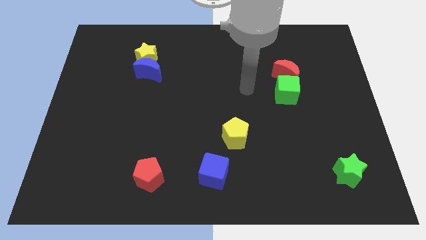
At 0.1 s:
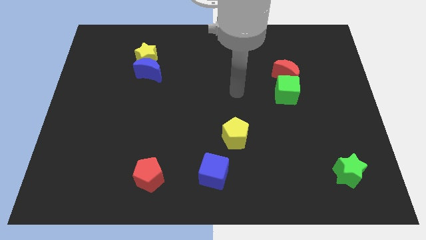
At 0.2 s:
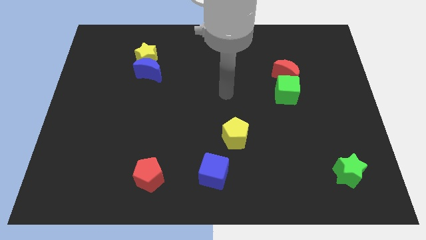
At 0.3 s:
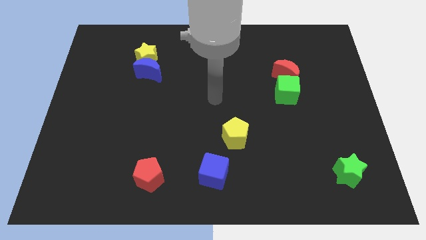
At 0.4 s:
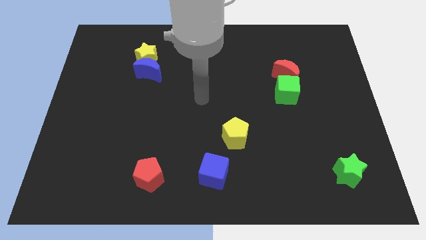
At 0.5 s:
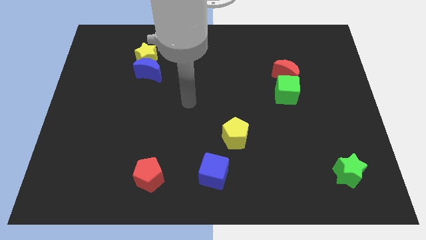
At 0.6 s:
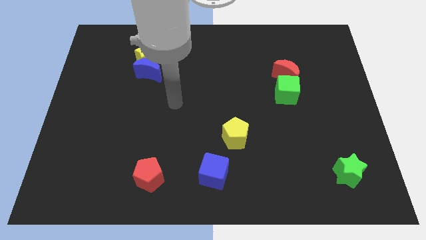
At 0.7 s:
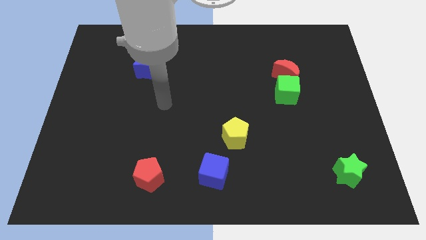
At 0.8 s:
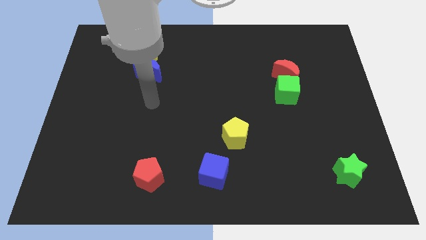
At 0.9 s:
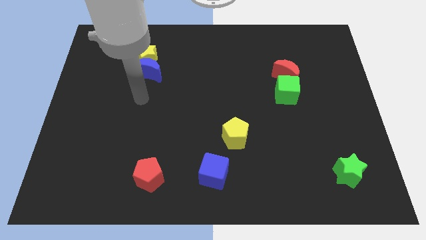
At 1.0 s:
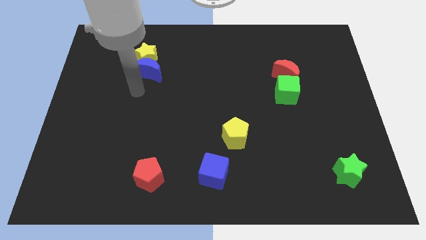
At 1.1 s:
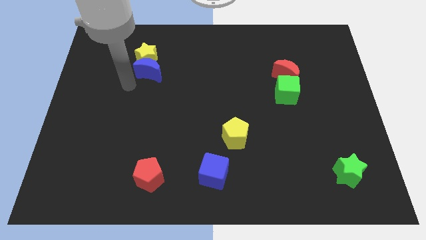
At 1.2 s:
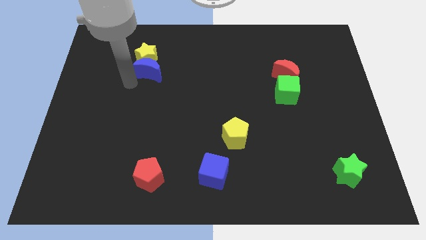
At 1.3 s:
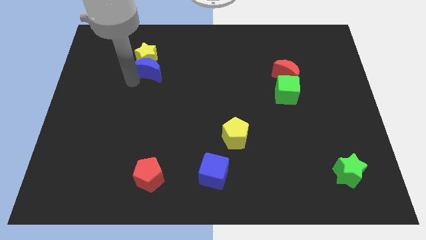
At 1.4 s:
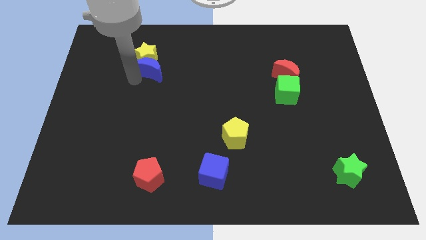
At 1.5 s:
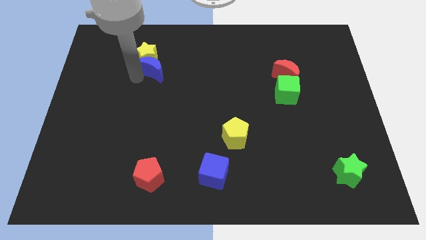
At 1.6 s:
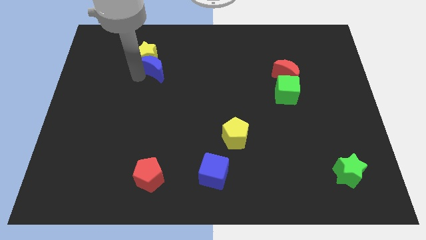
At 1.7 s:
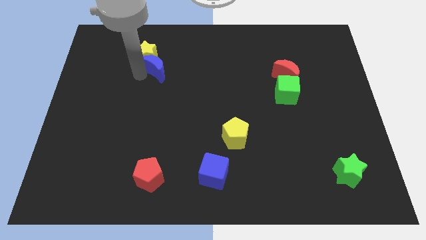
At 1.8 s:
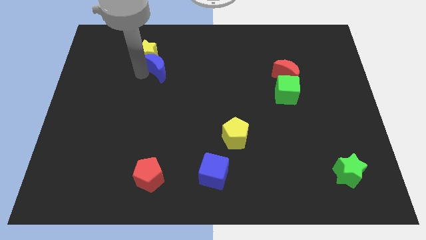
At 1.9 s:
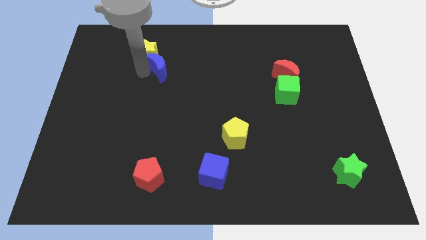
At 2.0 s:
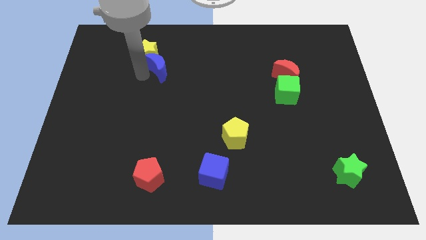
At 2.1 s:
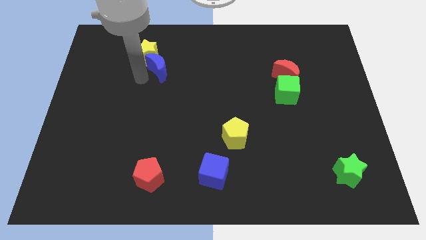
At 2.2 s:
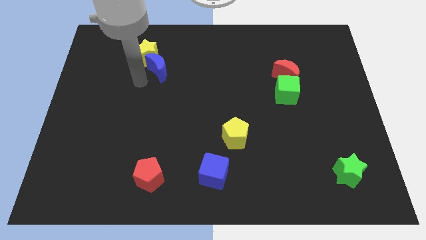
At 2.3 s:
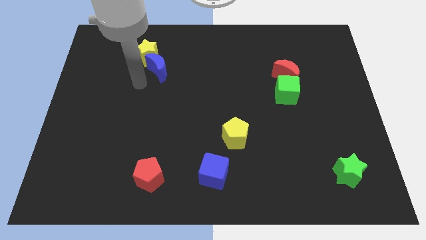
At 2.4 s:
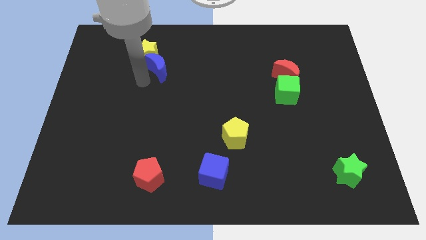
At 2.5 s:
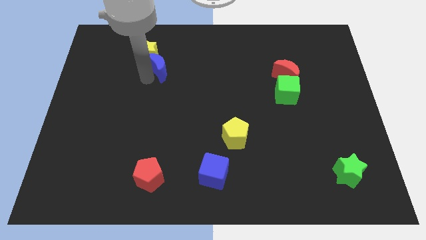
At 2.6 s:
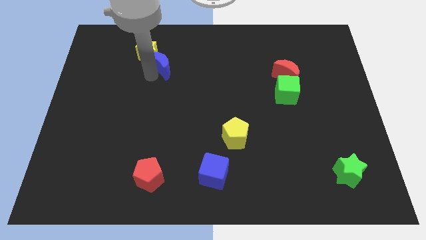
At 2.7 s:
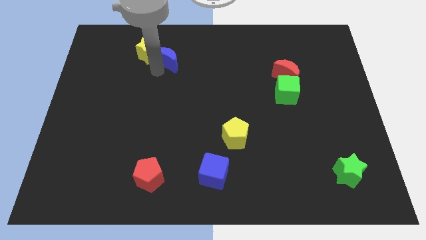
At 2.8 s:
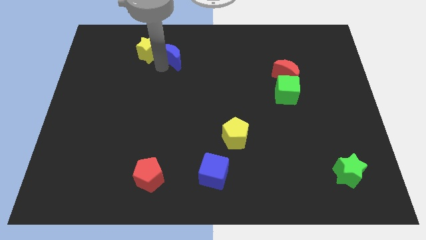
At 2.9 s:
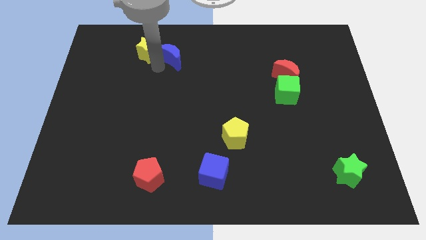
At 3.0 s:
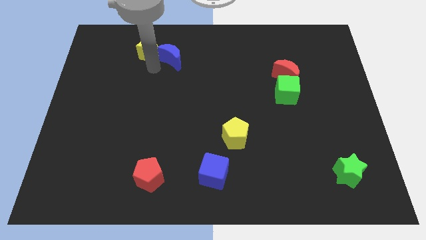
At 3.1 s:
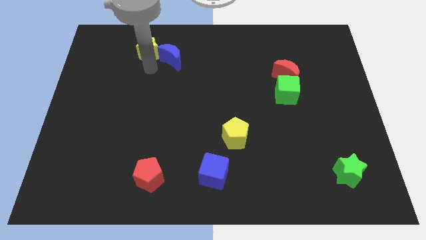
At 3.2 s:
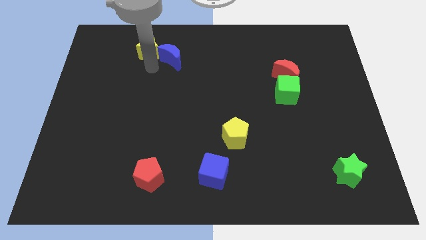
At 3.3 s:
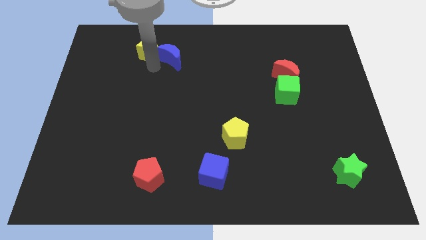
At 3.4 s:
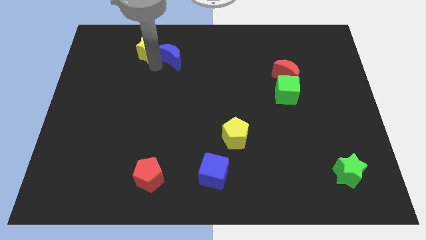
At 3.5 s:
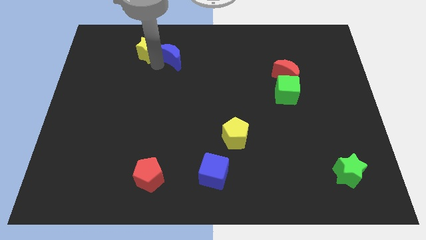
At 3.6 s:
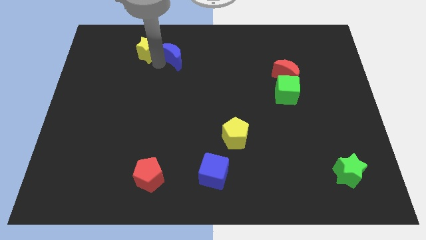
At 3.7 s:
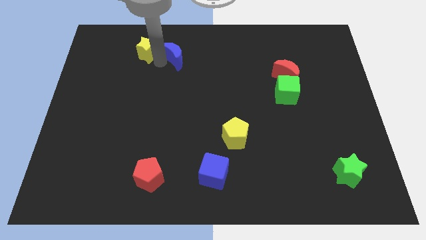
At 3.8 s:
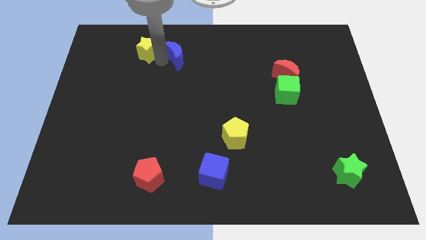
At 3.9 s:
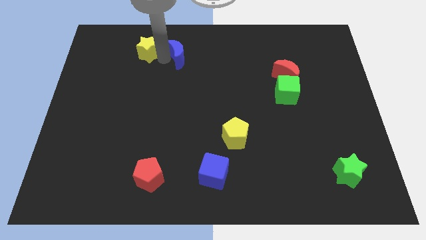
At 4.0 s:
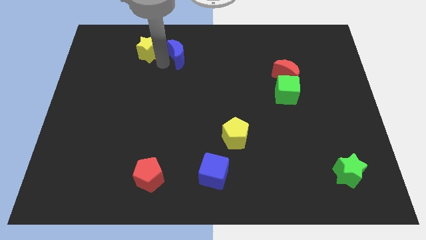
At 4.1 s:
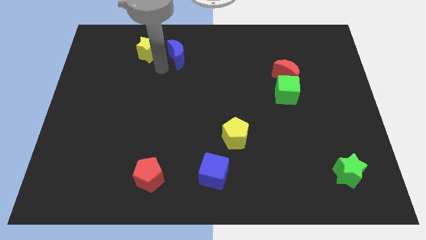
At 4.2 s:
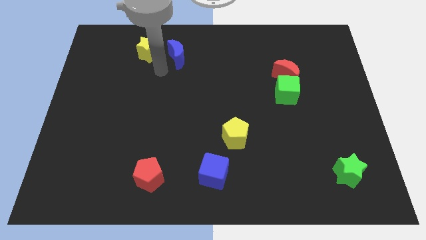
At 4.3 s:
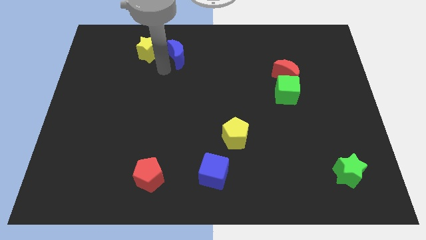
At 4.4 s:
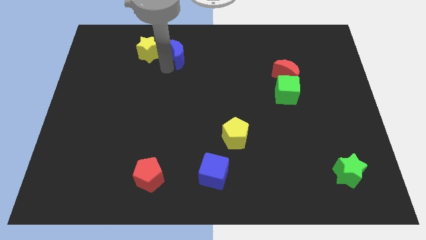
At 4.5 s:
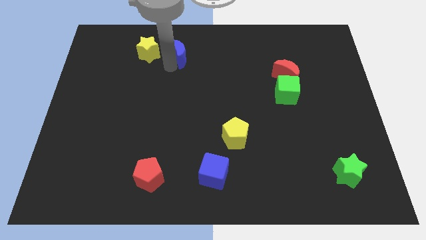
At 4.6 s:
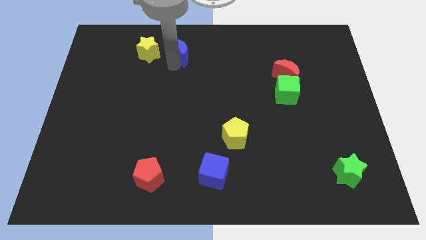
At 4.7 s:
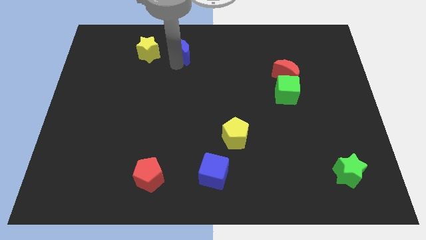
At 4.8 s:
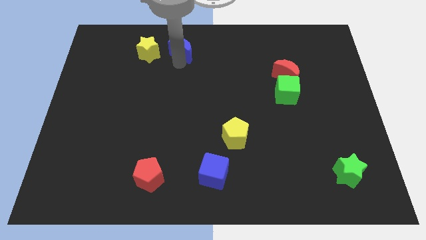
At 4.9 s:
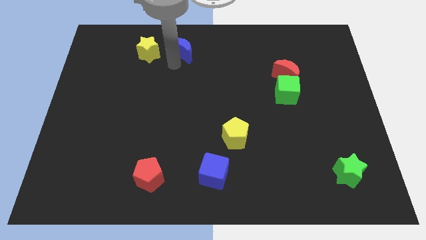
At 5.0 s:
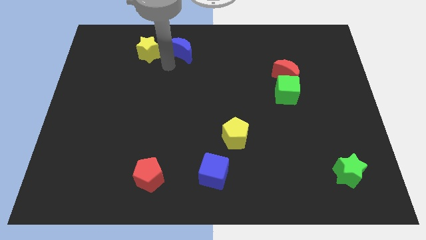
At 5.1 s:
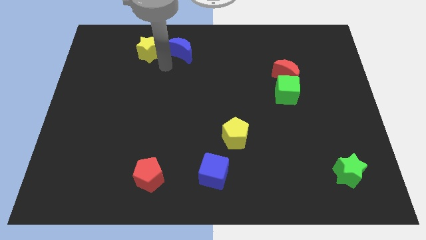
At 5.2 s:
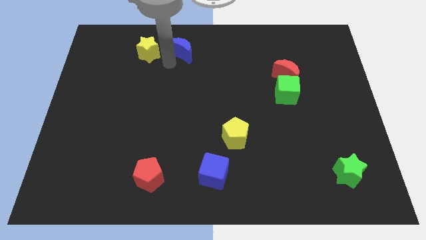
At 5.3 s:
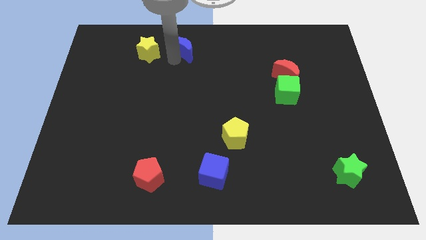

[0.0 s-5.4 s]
push the blue moon to the top side

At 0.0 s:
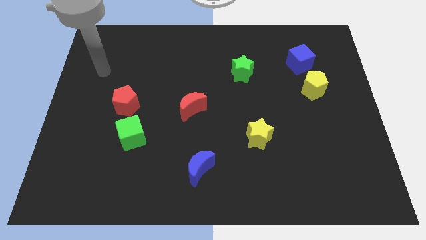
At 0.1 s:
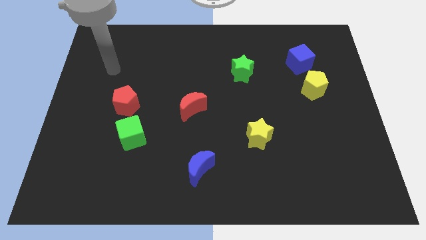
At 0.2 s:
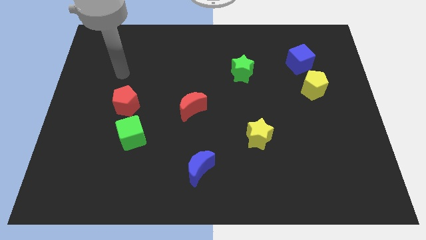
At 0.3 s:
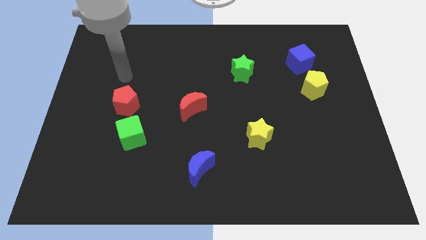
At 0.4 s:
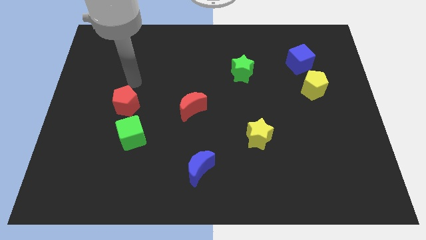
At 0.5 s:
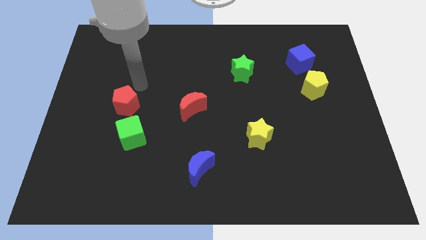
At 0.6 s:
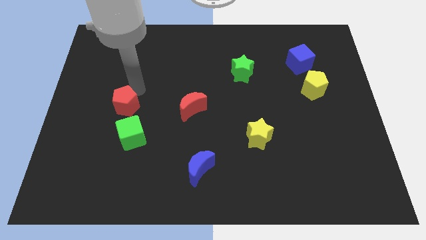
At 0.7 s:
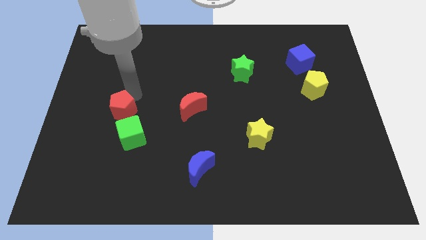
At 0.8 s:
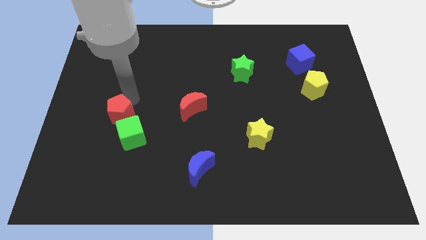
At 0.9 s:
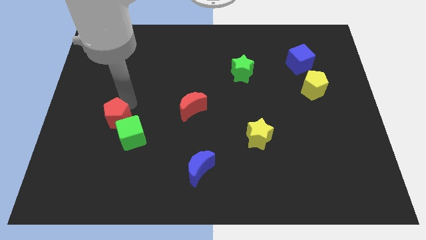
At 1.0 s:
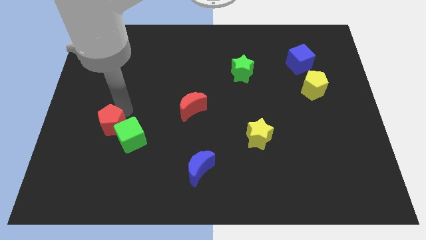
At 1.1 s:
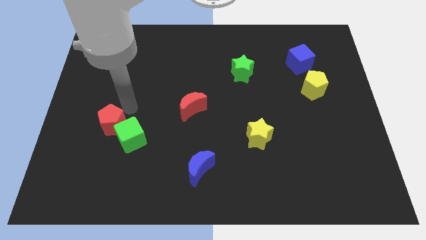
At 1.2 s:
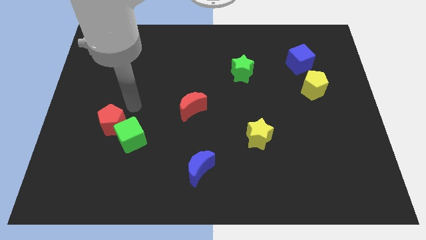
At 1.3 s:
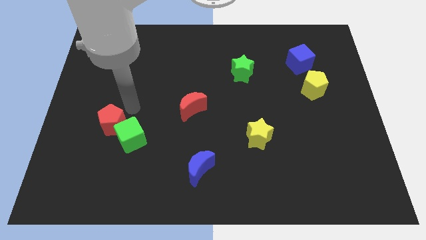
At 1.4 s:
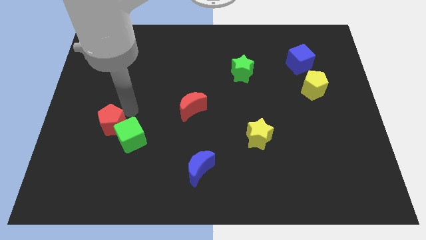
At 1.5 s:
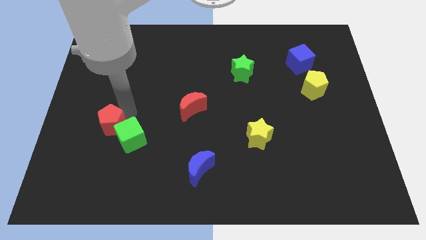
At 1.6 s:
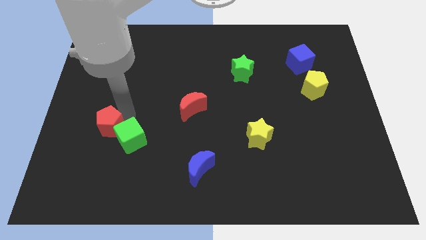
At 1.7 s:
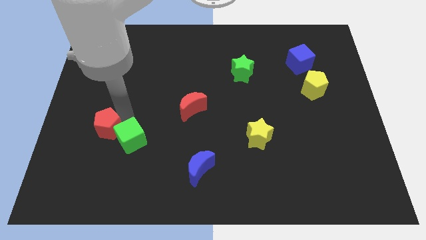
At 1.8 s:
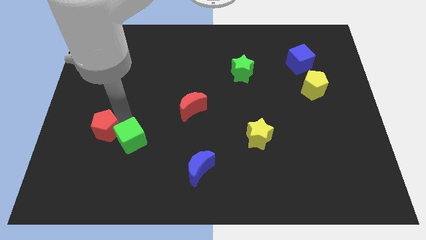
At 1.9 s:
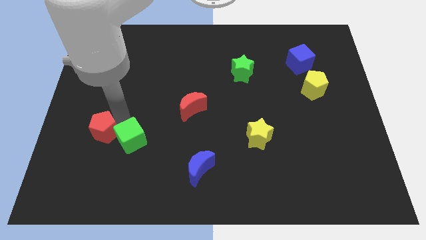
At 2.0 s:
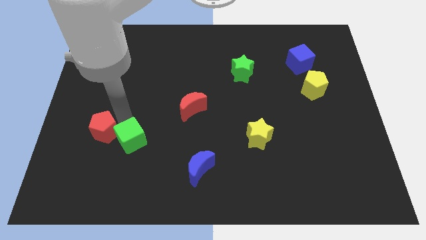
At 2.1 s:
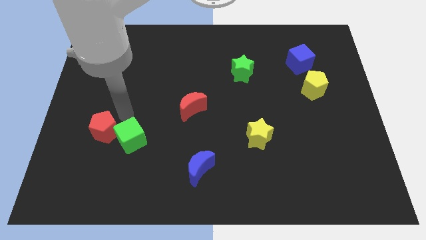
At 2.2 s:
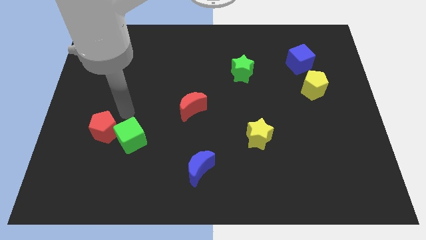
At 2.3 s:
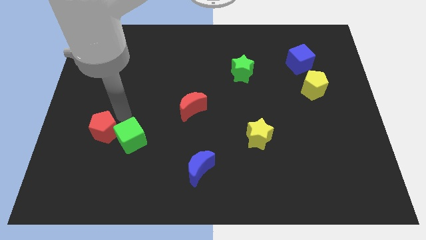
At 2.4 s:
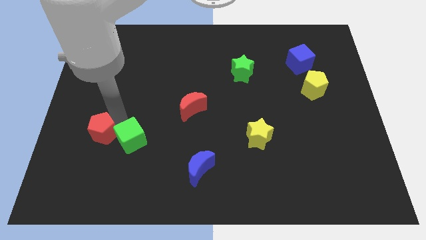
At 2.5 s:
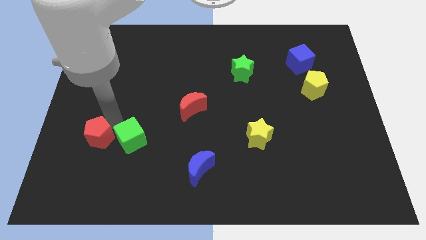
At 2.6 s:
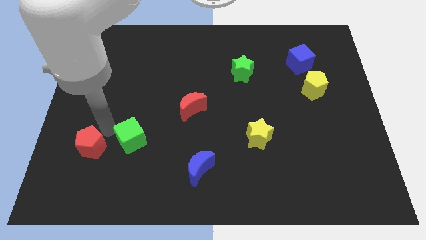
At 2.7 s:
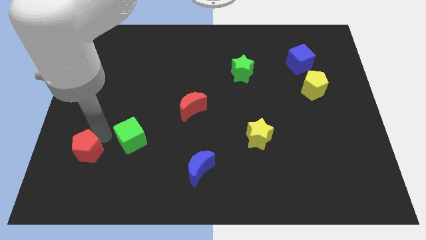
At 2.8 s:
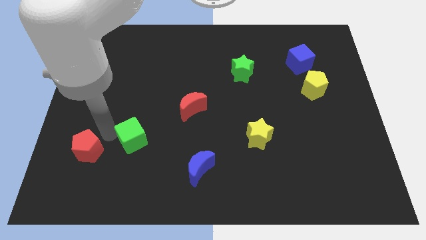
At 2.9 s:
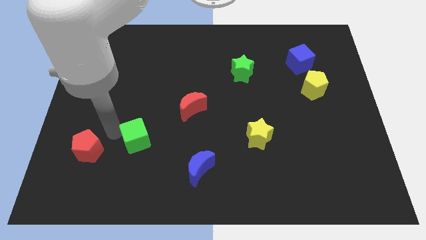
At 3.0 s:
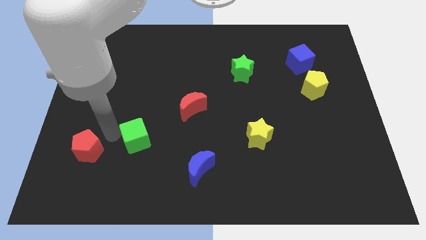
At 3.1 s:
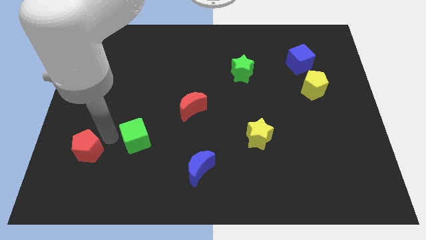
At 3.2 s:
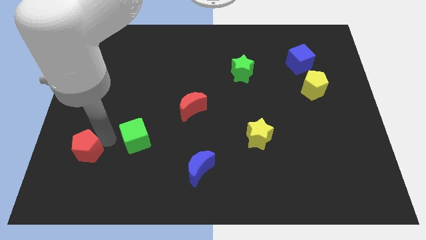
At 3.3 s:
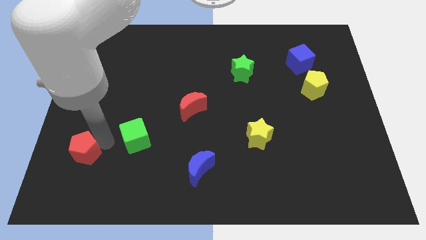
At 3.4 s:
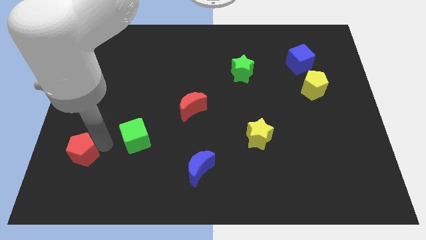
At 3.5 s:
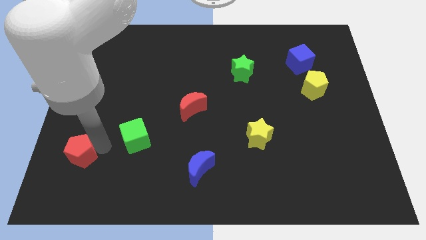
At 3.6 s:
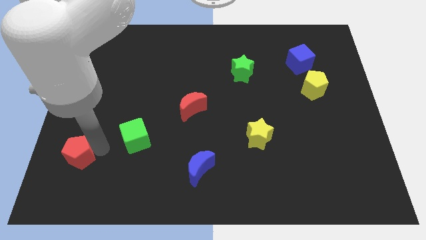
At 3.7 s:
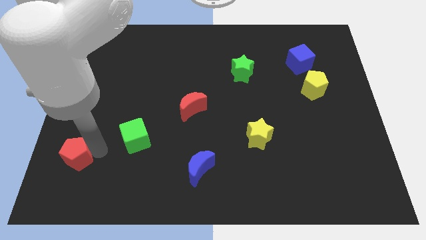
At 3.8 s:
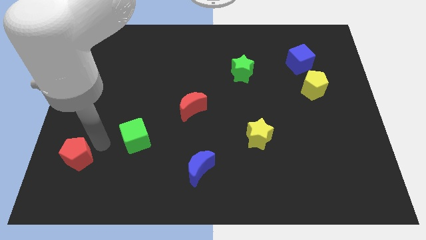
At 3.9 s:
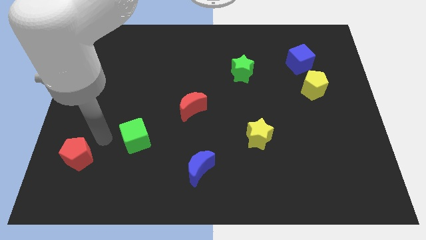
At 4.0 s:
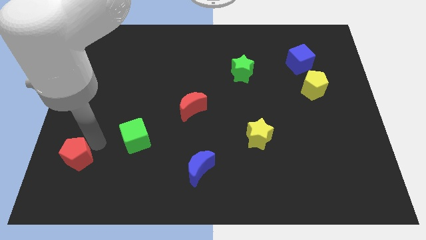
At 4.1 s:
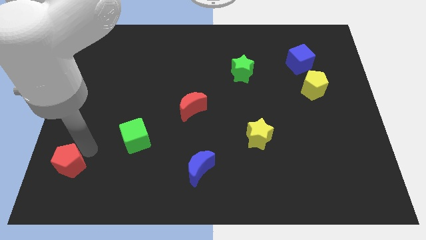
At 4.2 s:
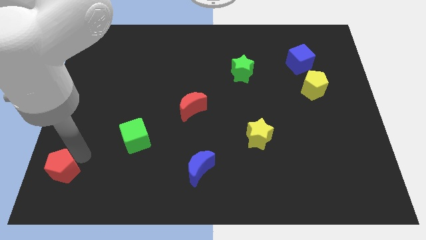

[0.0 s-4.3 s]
put the red pentagon to the bottom left of the board
